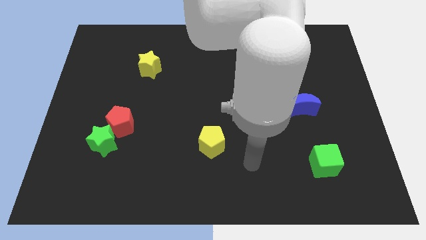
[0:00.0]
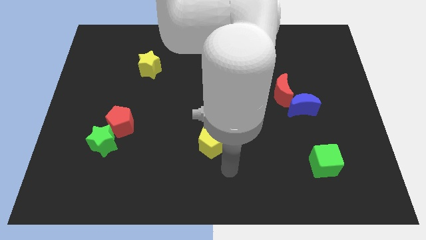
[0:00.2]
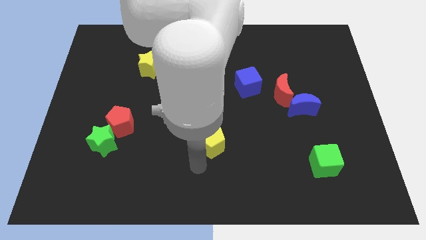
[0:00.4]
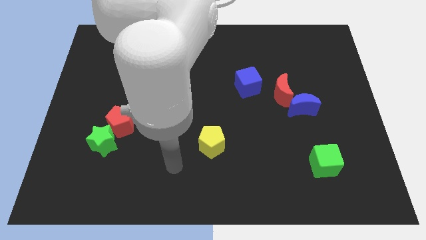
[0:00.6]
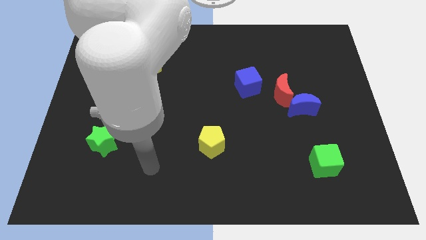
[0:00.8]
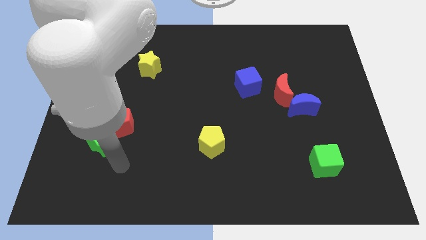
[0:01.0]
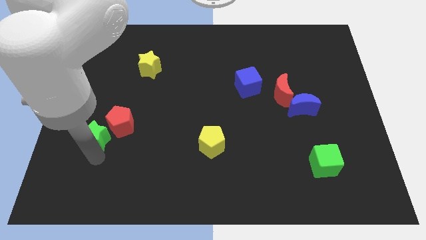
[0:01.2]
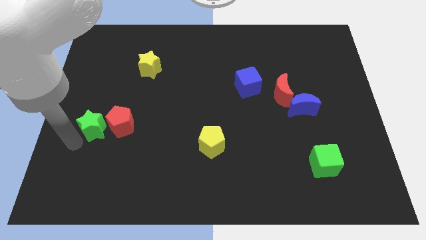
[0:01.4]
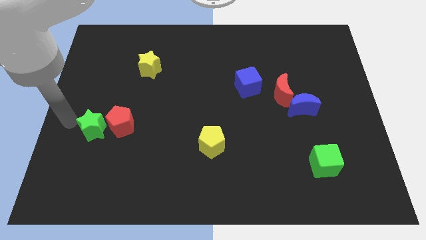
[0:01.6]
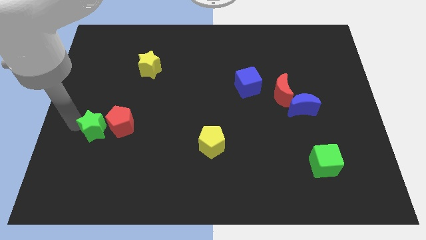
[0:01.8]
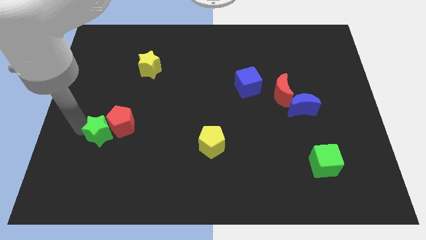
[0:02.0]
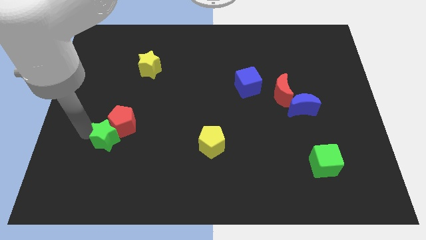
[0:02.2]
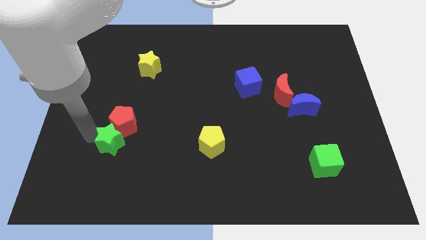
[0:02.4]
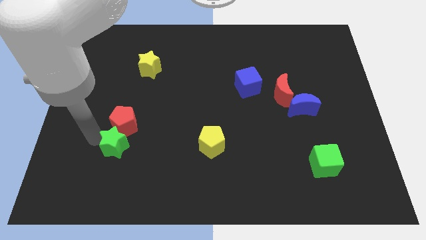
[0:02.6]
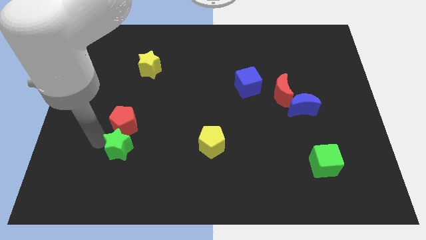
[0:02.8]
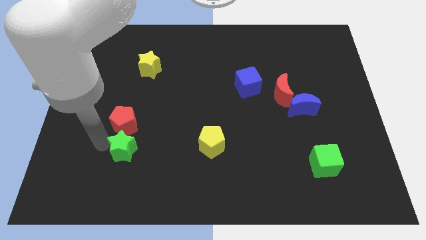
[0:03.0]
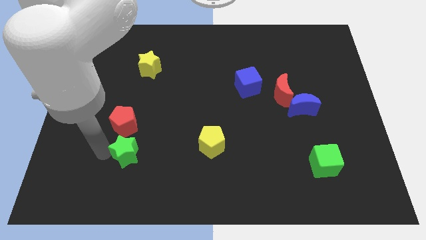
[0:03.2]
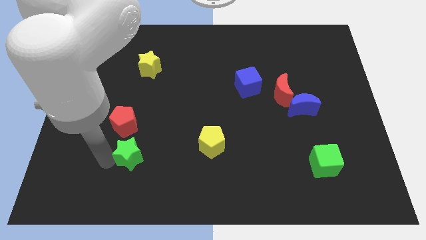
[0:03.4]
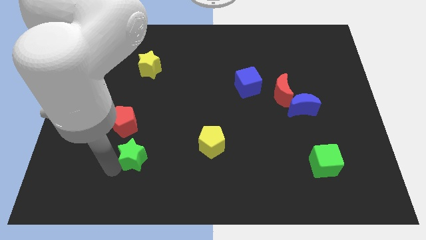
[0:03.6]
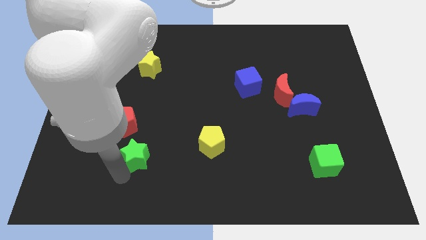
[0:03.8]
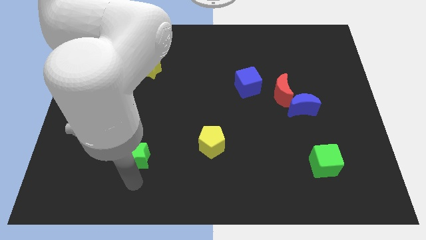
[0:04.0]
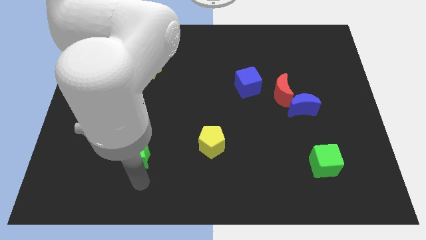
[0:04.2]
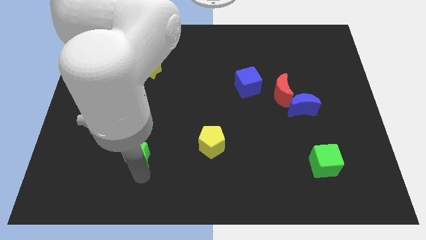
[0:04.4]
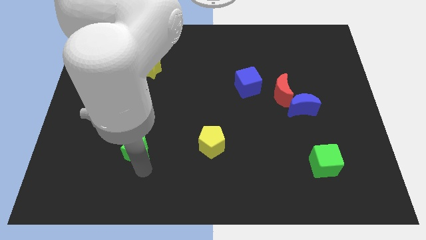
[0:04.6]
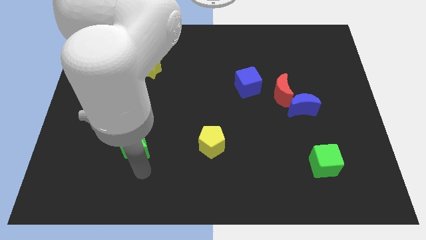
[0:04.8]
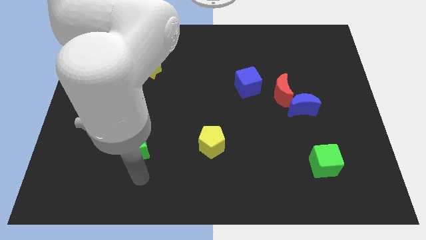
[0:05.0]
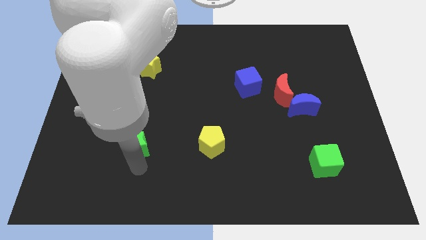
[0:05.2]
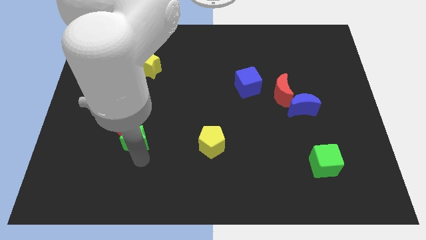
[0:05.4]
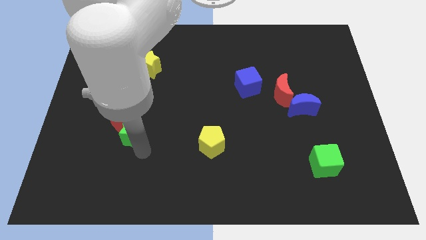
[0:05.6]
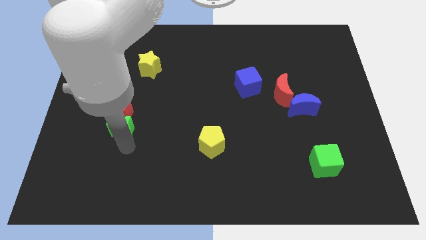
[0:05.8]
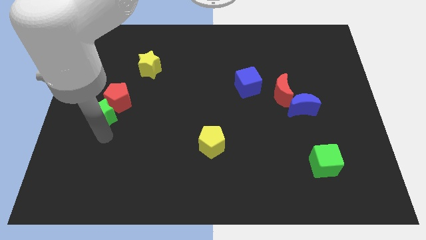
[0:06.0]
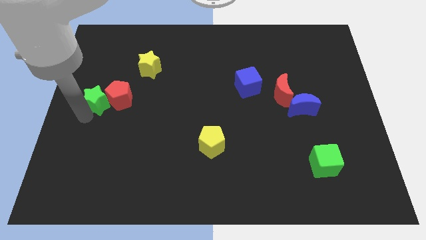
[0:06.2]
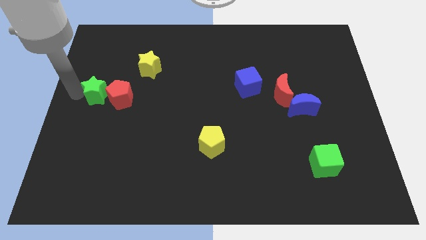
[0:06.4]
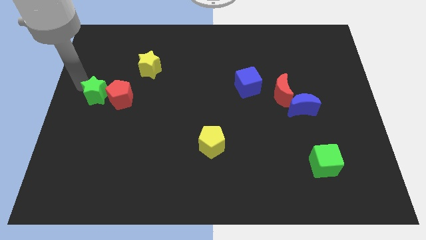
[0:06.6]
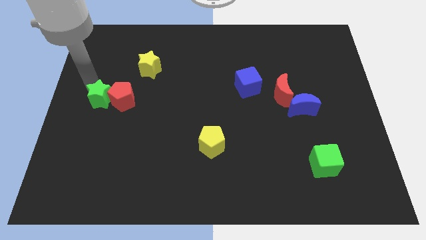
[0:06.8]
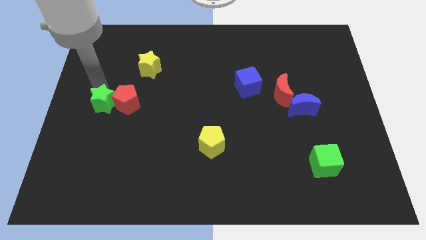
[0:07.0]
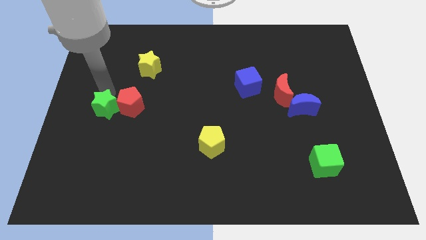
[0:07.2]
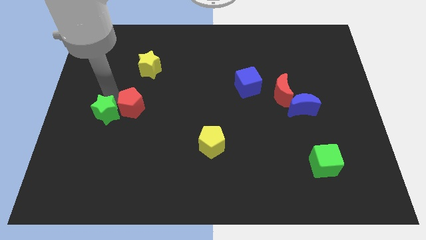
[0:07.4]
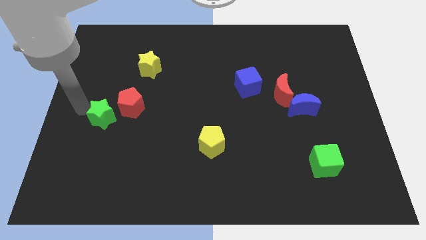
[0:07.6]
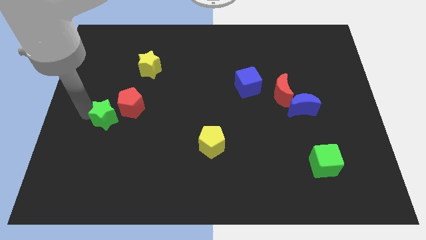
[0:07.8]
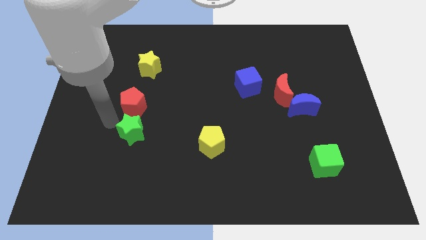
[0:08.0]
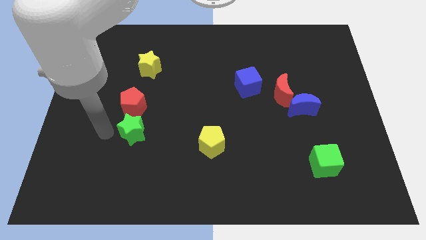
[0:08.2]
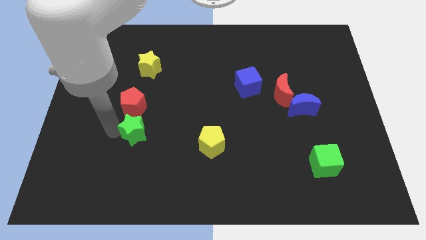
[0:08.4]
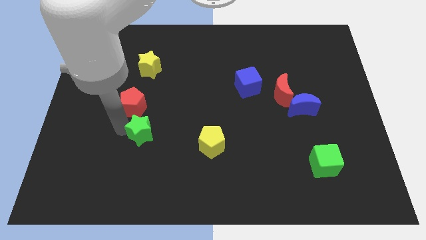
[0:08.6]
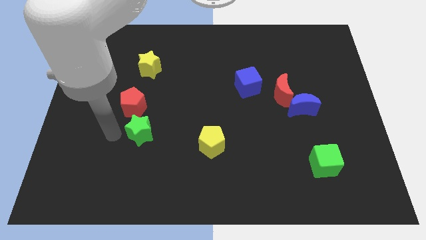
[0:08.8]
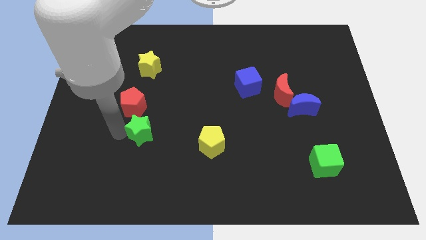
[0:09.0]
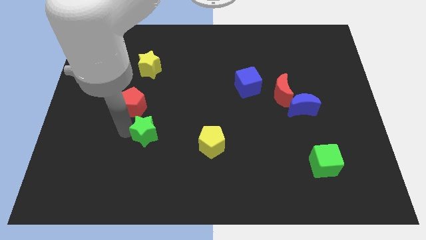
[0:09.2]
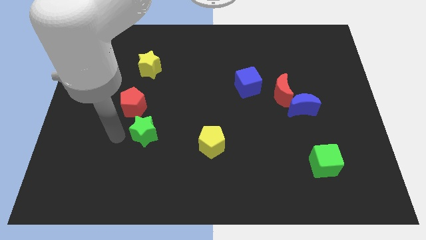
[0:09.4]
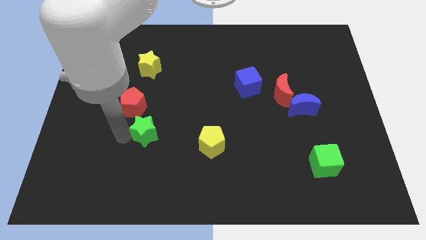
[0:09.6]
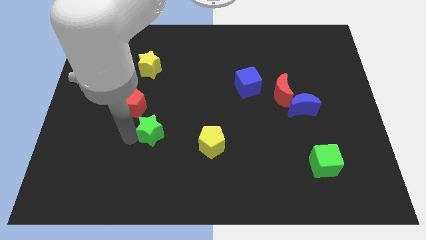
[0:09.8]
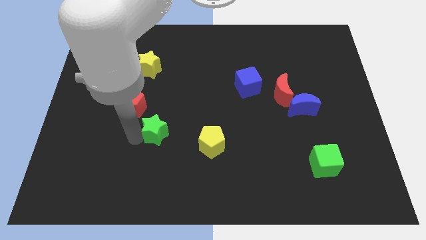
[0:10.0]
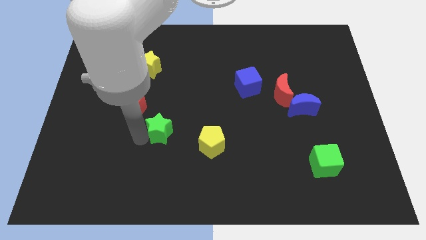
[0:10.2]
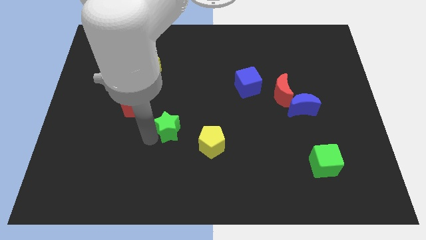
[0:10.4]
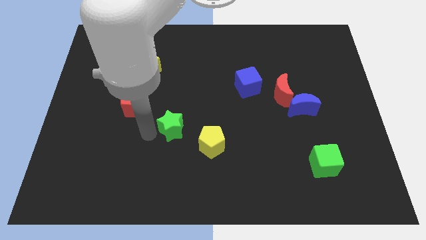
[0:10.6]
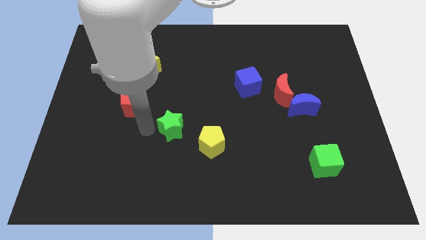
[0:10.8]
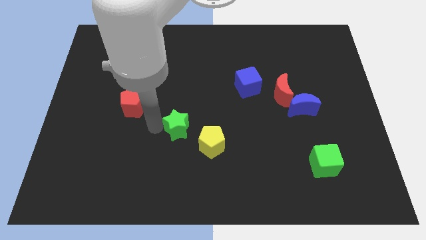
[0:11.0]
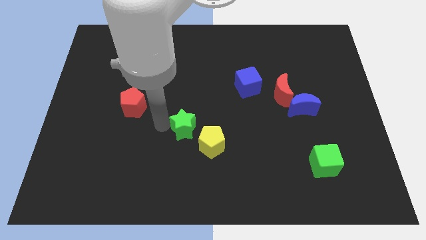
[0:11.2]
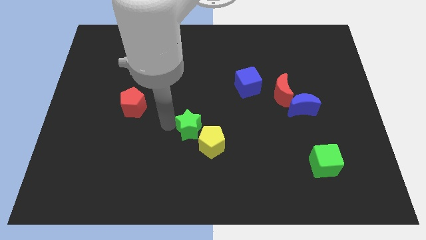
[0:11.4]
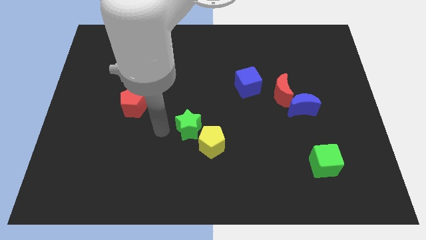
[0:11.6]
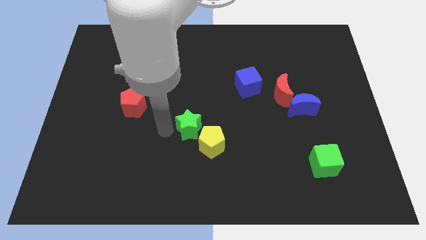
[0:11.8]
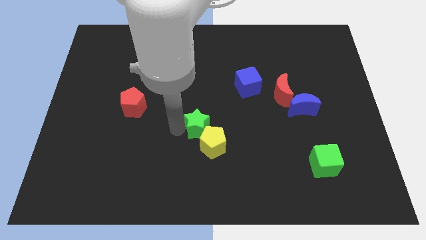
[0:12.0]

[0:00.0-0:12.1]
move the green star to the right

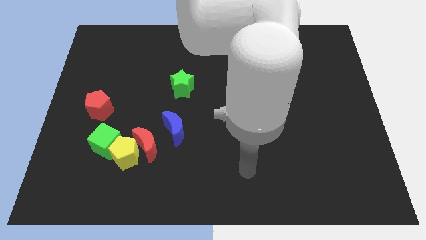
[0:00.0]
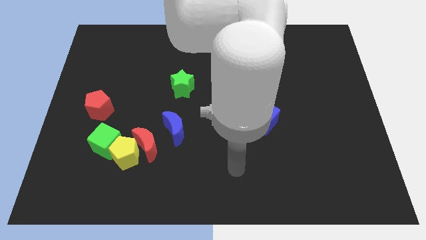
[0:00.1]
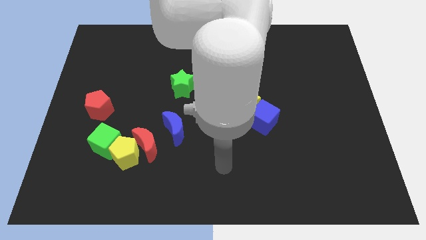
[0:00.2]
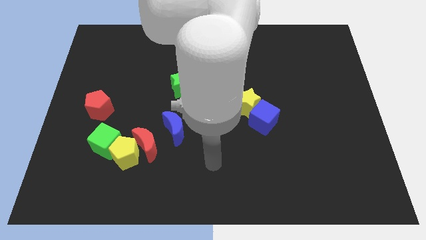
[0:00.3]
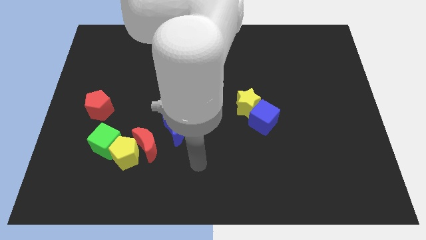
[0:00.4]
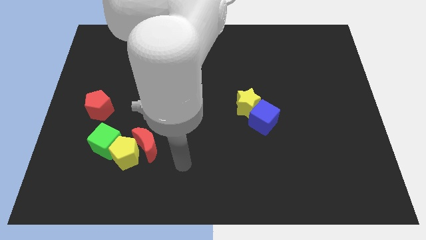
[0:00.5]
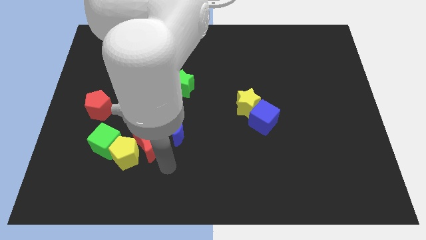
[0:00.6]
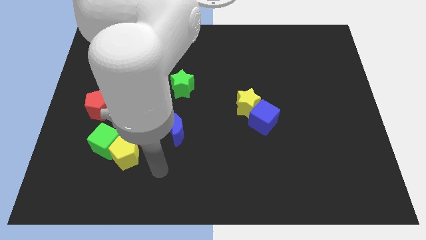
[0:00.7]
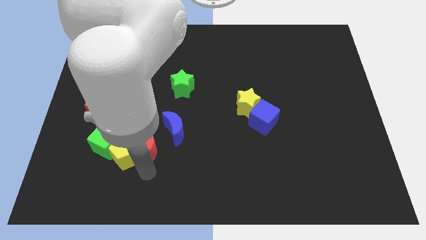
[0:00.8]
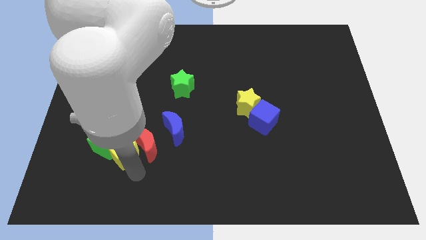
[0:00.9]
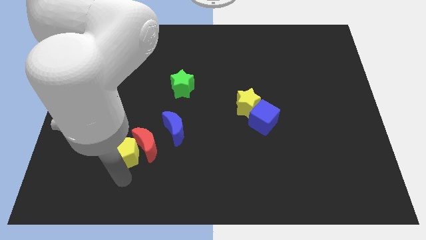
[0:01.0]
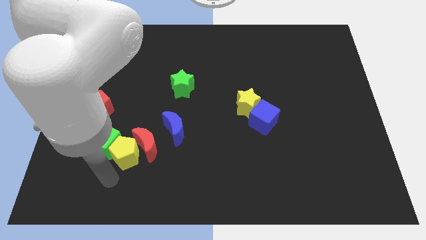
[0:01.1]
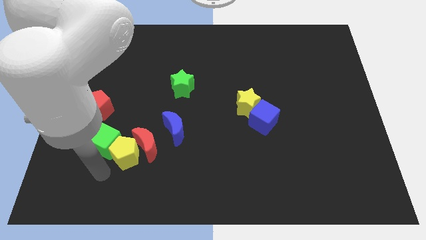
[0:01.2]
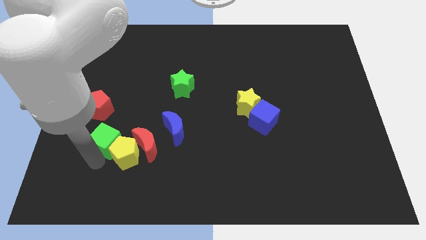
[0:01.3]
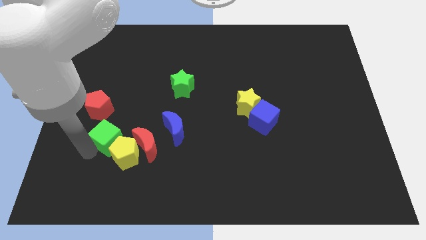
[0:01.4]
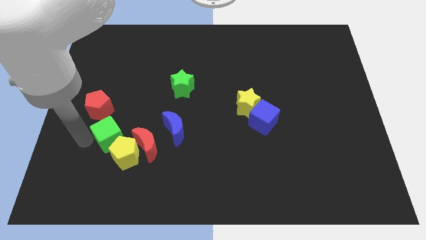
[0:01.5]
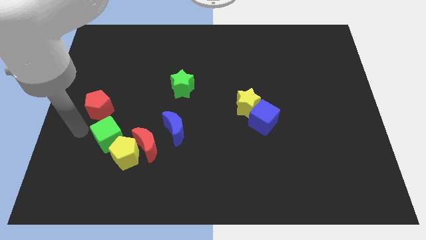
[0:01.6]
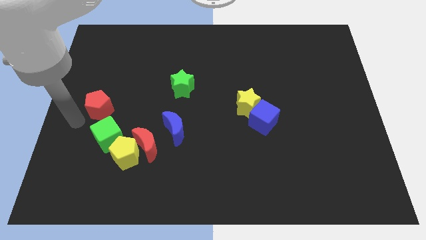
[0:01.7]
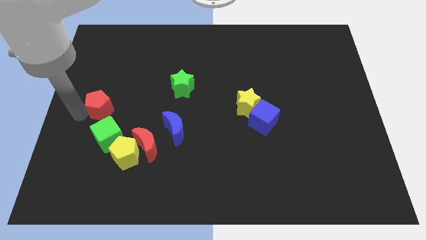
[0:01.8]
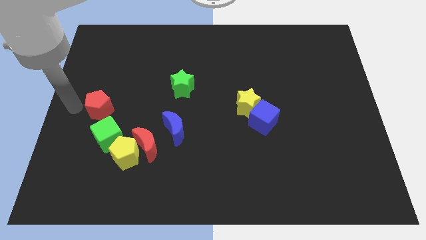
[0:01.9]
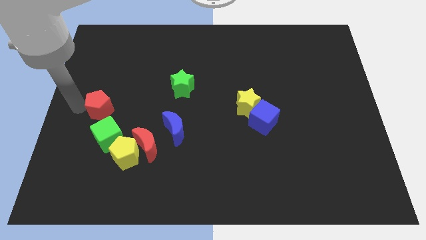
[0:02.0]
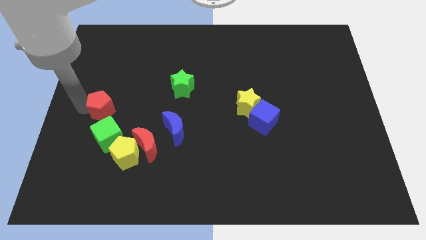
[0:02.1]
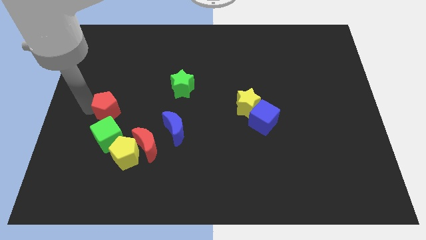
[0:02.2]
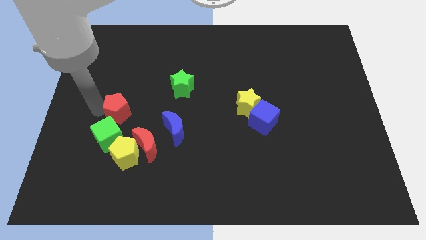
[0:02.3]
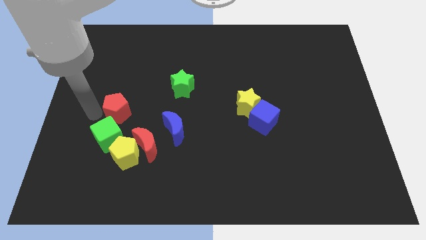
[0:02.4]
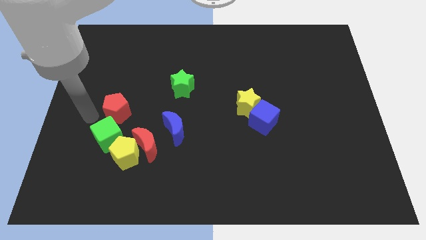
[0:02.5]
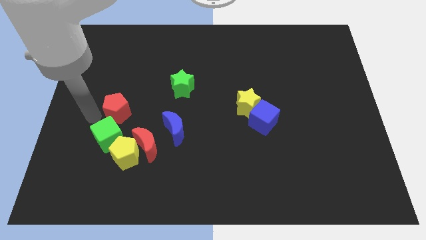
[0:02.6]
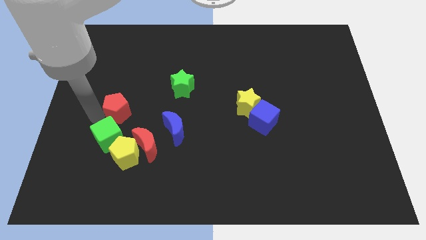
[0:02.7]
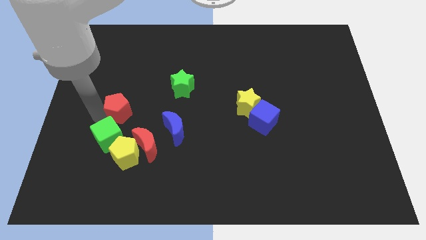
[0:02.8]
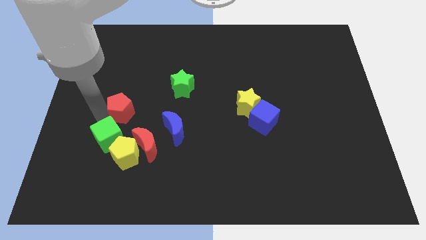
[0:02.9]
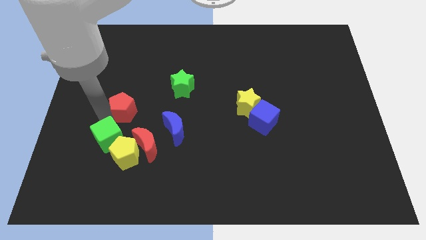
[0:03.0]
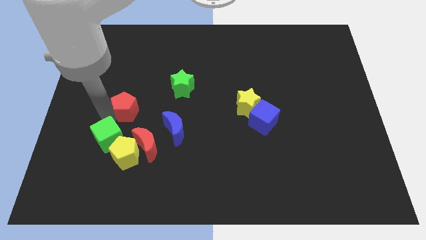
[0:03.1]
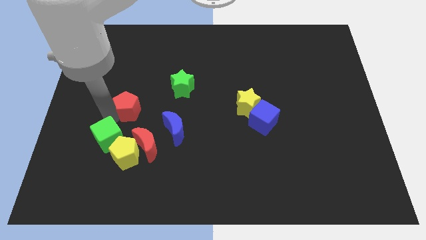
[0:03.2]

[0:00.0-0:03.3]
slightly slide the red pentagon to the right
